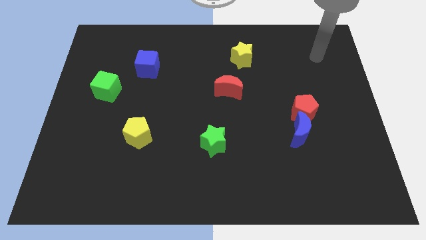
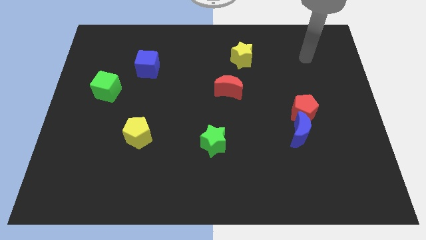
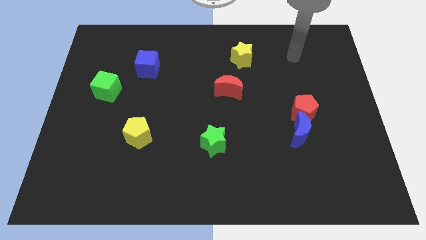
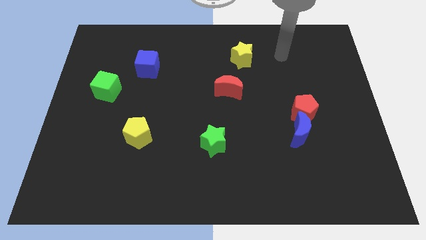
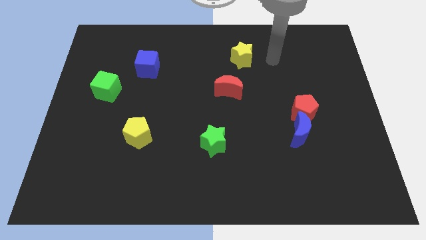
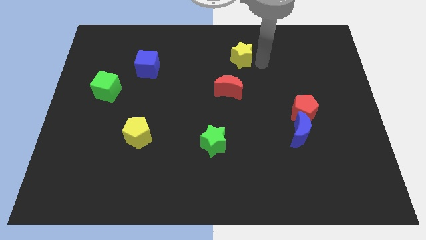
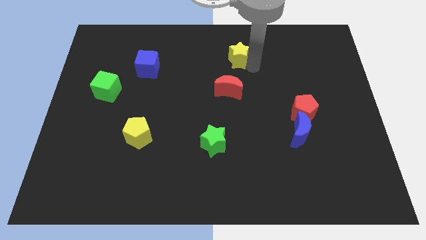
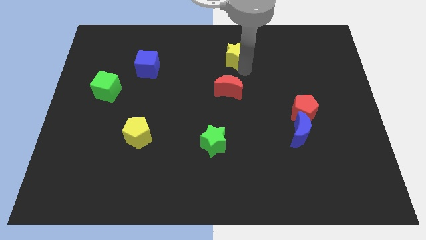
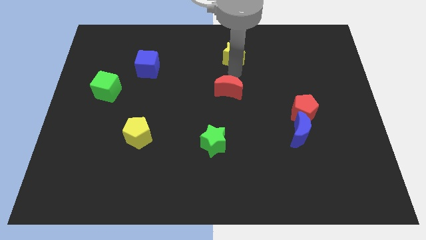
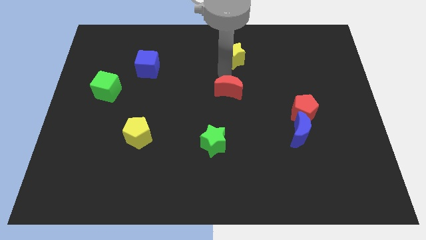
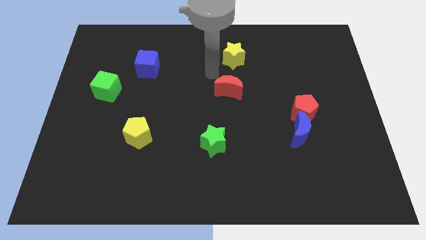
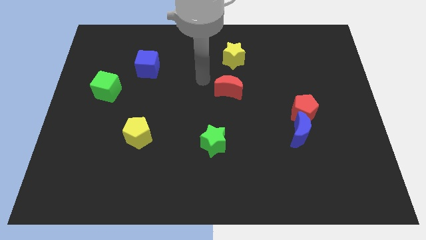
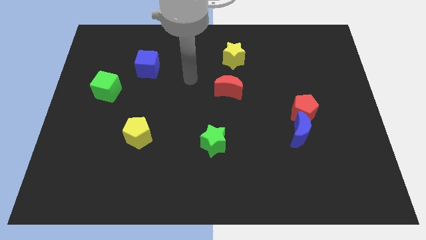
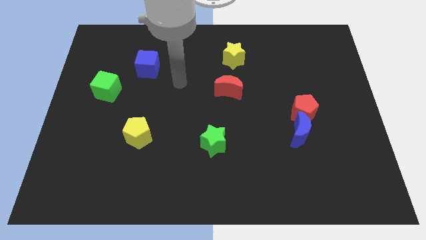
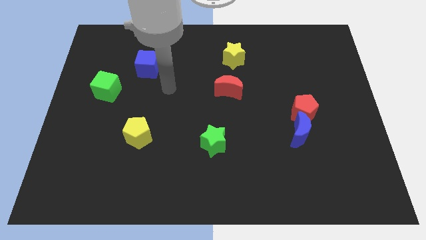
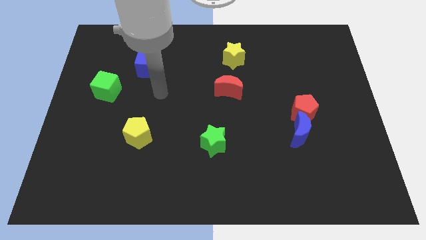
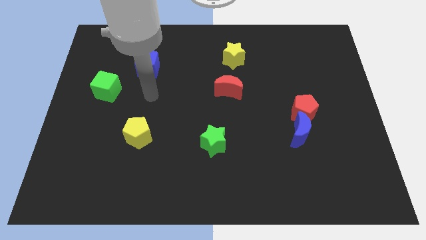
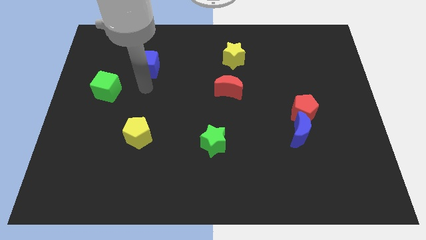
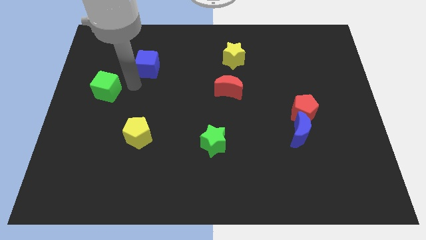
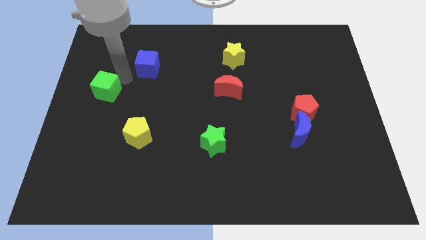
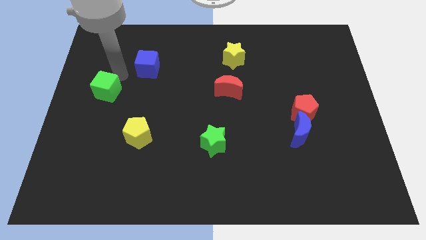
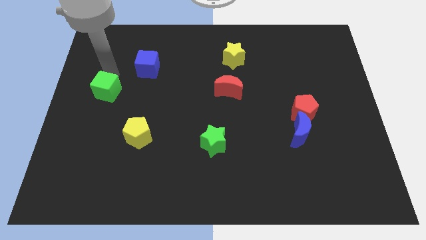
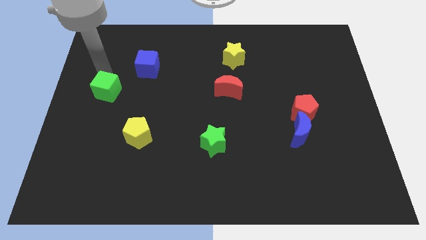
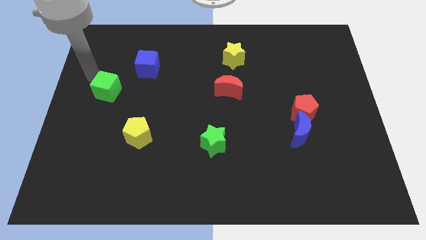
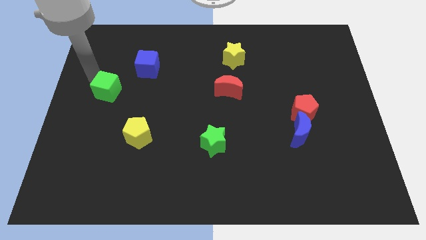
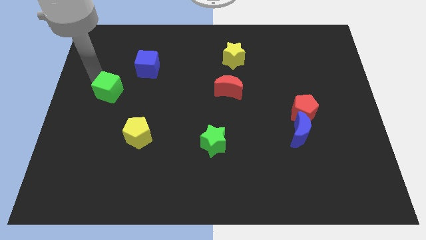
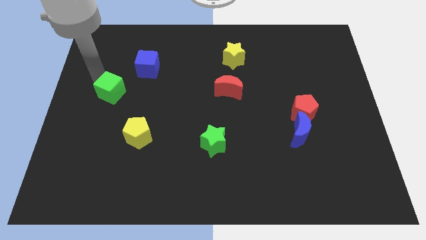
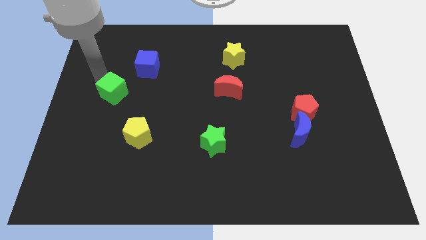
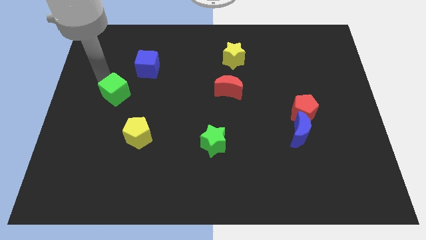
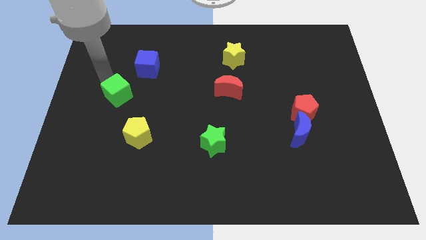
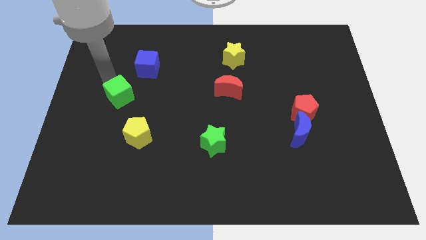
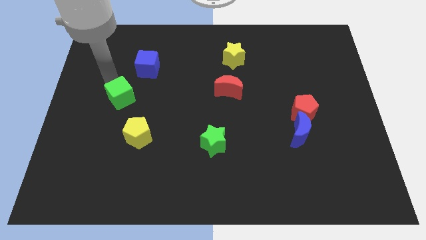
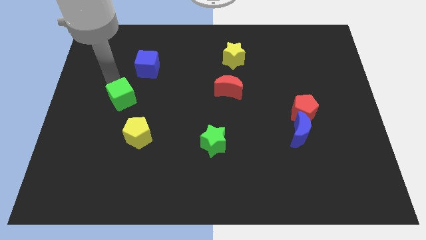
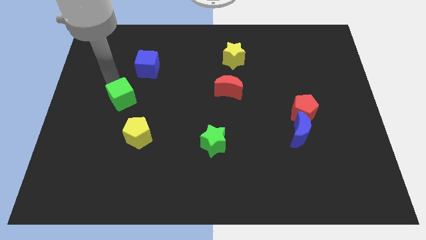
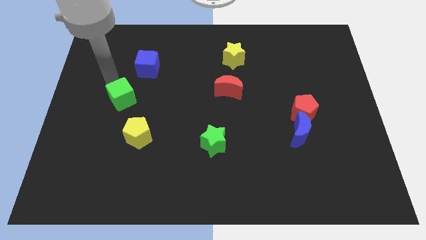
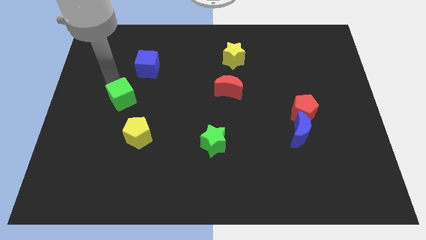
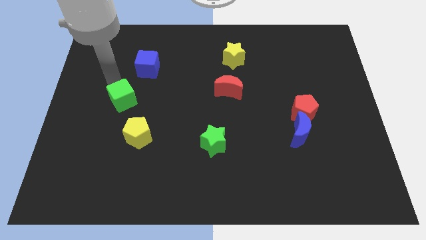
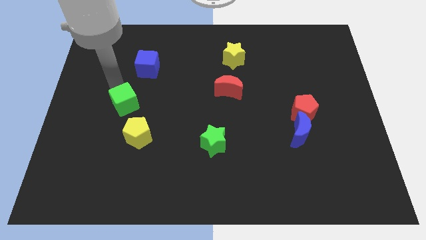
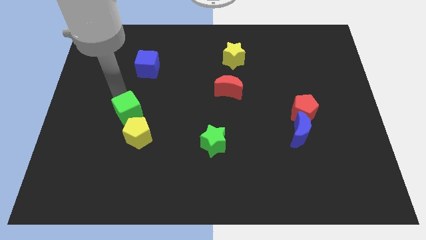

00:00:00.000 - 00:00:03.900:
slide the green cube slightly downwards and right

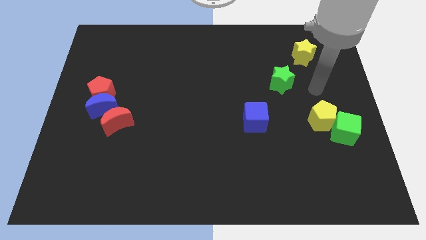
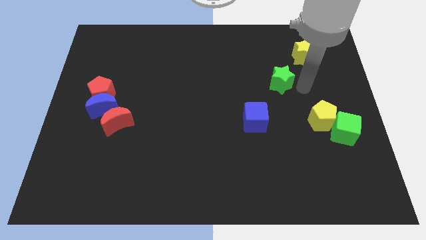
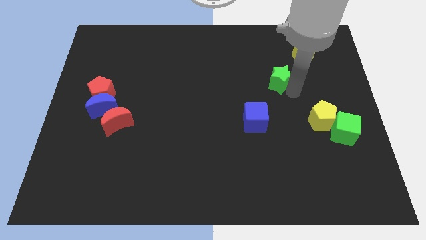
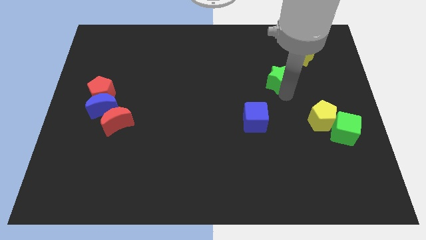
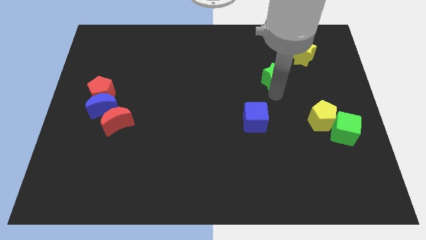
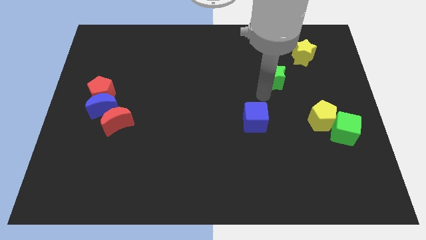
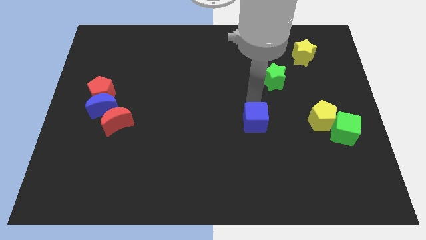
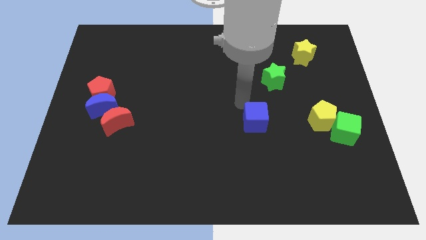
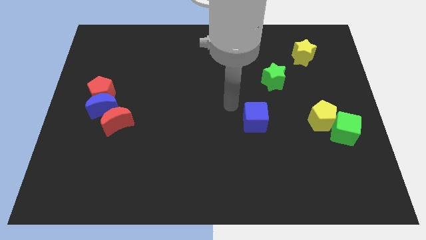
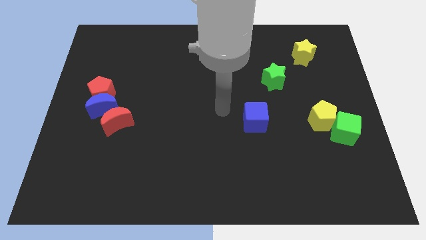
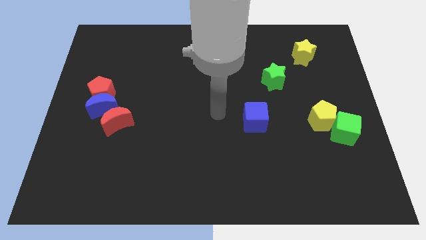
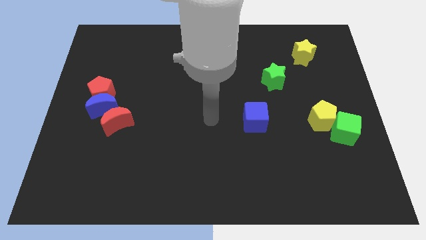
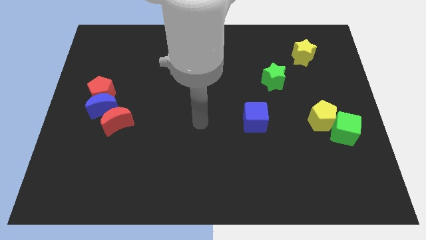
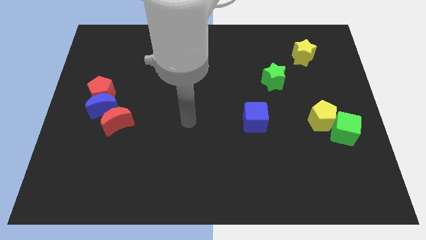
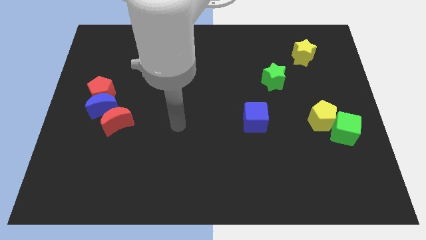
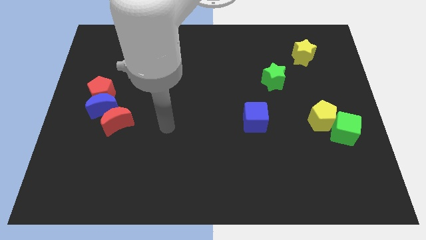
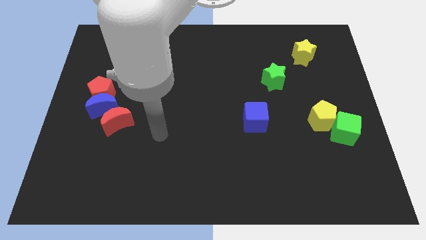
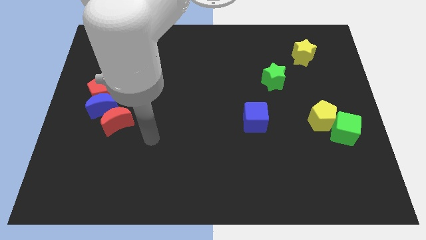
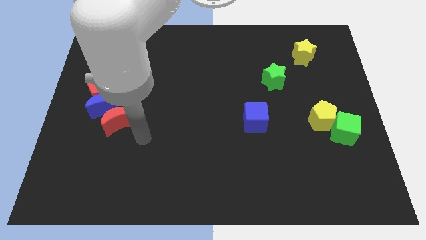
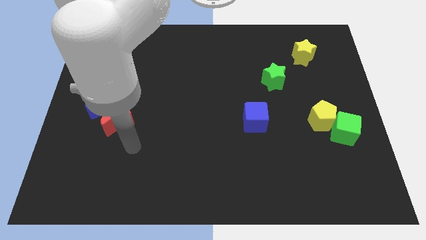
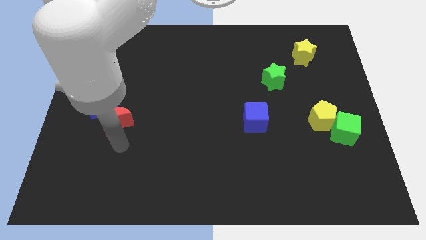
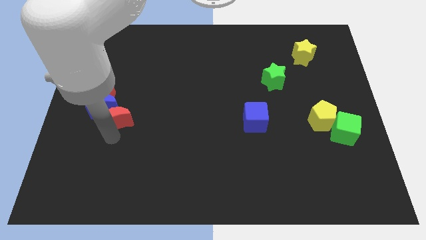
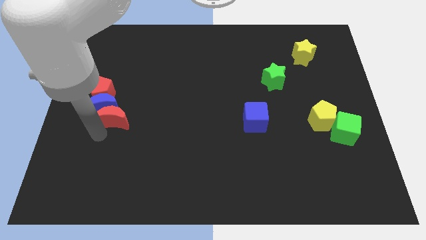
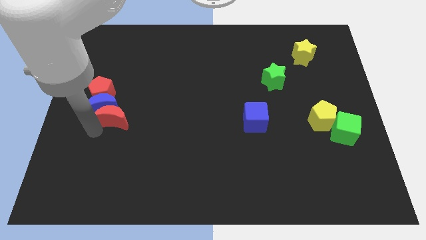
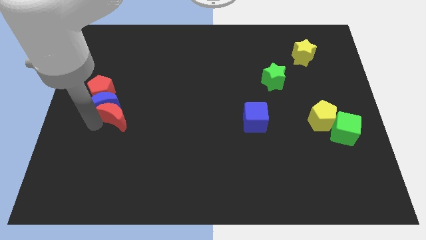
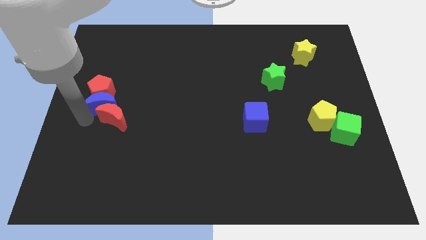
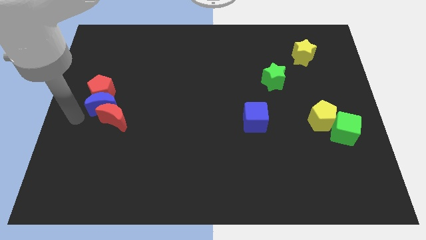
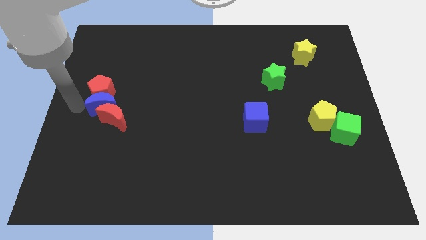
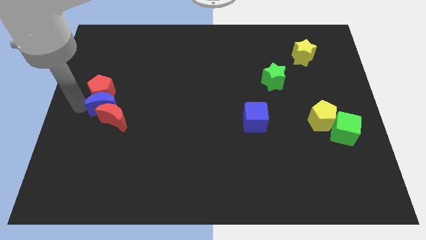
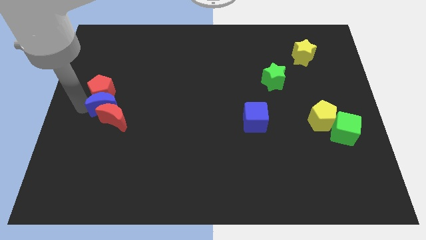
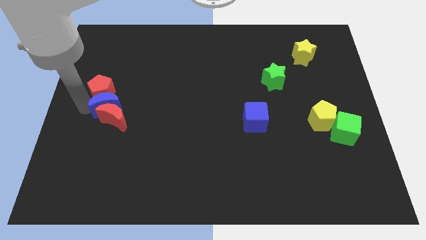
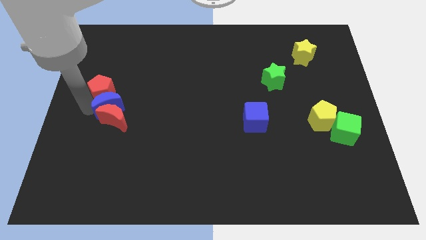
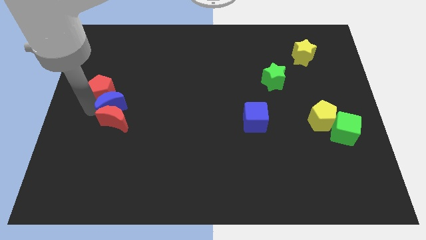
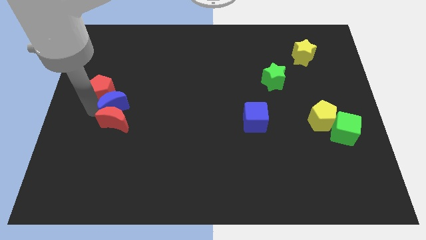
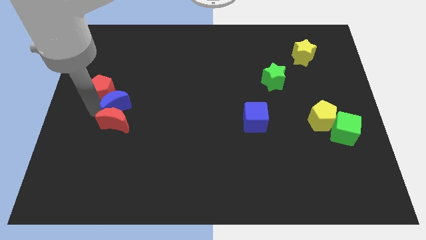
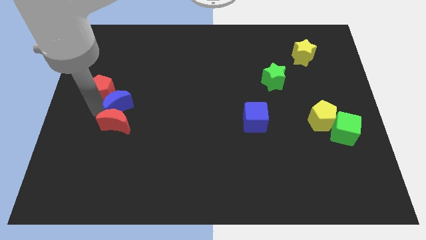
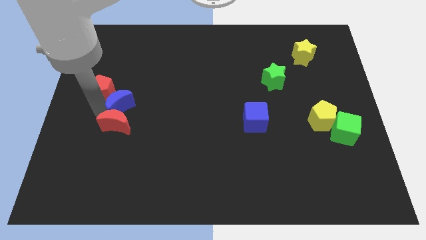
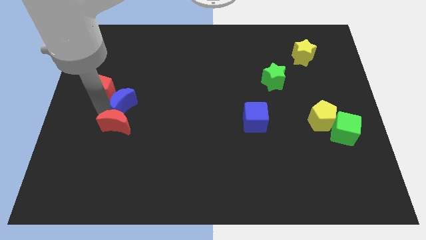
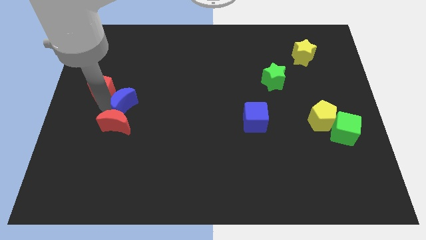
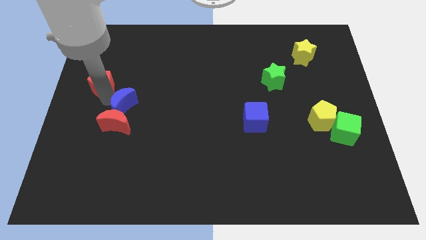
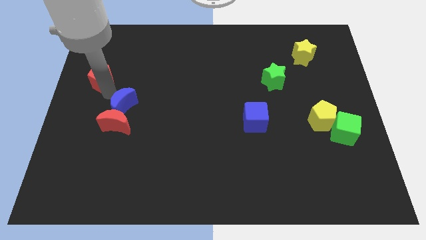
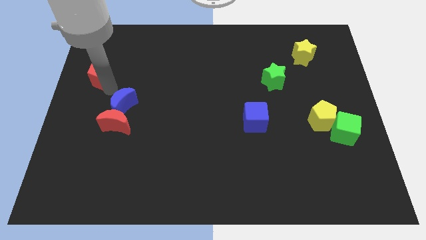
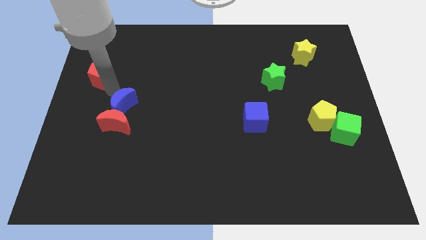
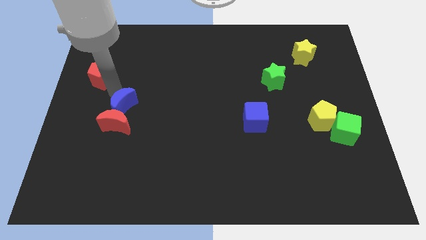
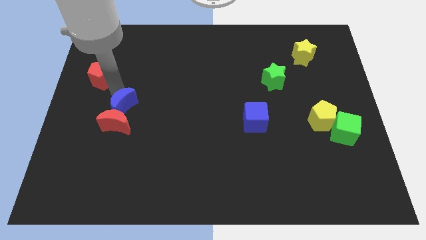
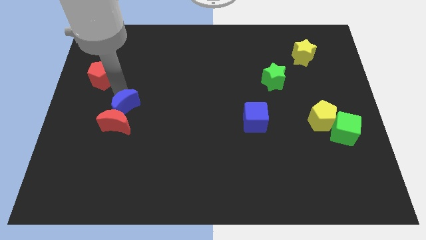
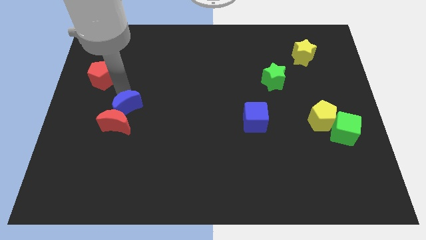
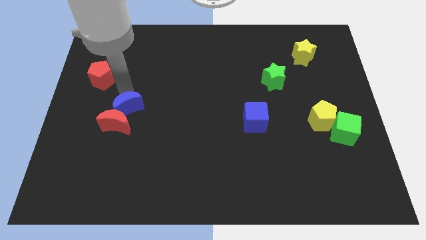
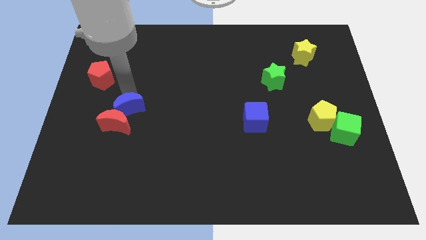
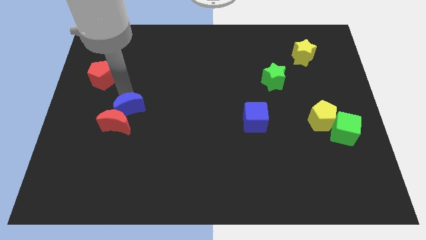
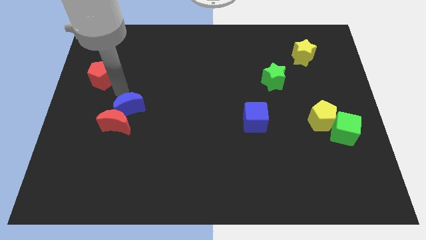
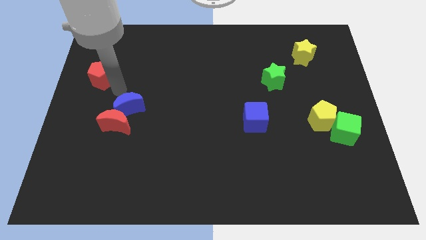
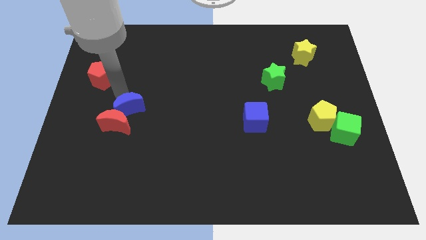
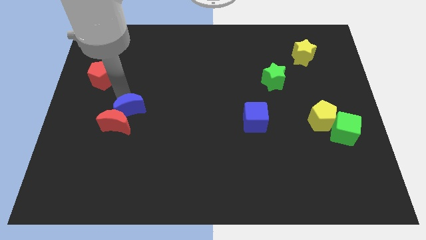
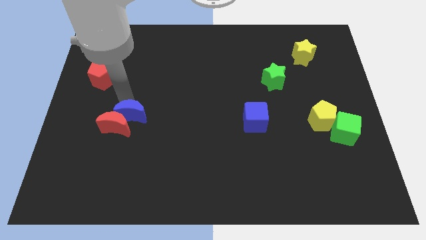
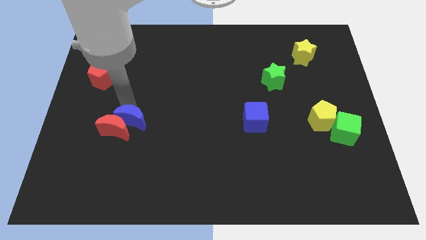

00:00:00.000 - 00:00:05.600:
push the blue moon a bit down and to the right diagonally
